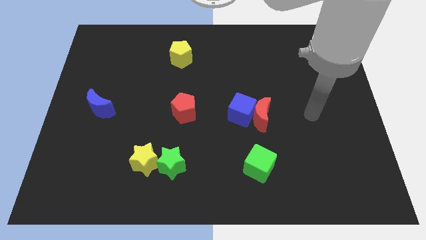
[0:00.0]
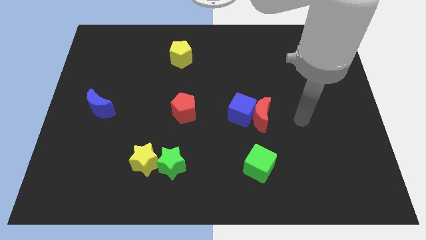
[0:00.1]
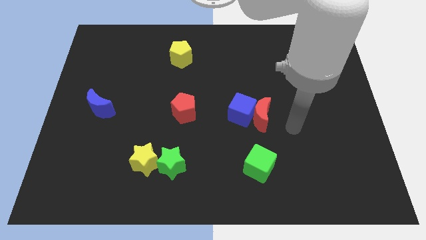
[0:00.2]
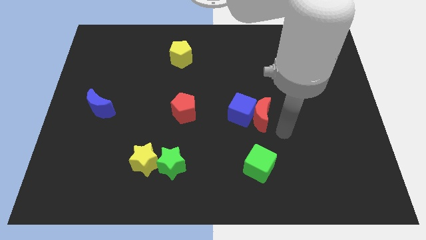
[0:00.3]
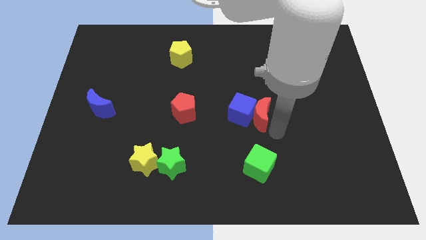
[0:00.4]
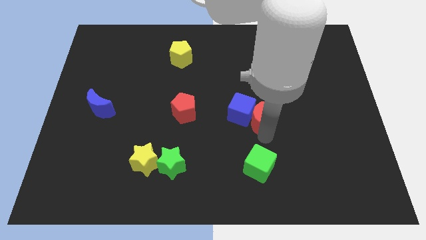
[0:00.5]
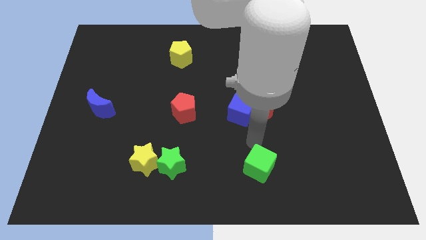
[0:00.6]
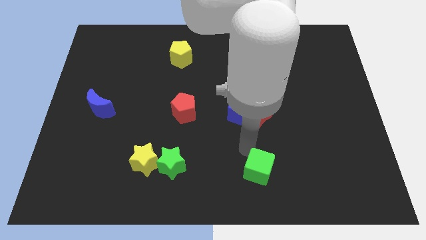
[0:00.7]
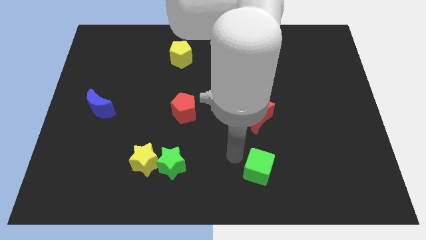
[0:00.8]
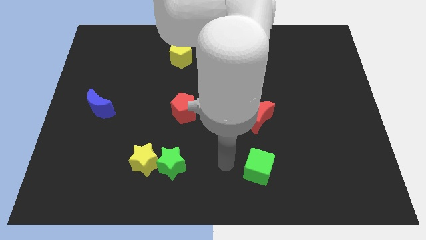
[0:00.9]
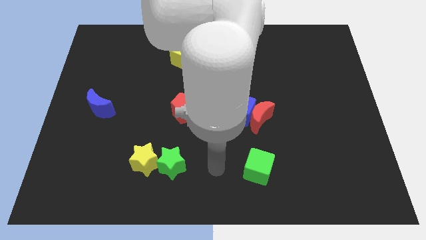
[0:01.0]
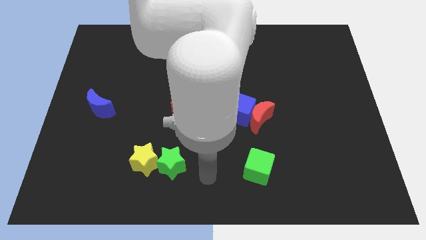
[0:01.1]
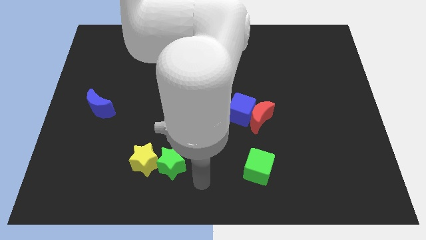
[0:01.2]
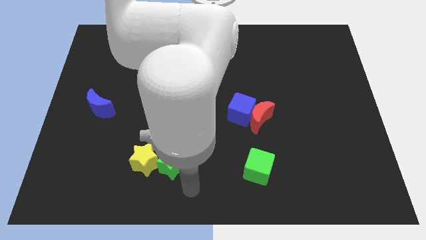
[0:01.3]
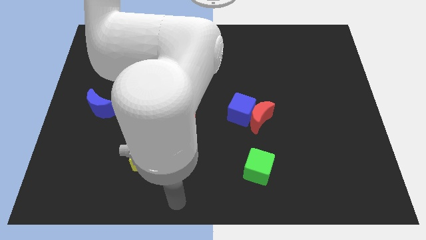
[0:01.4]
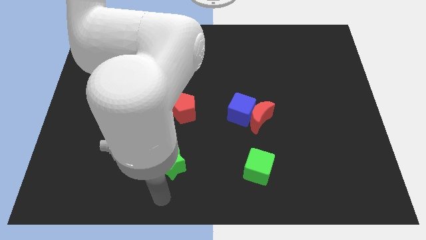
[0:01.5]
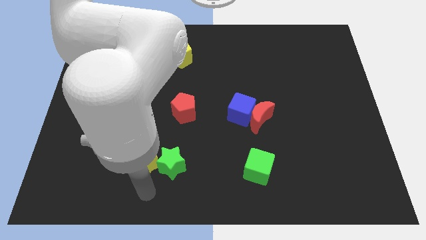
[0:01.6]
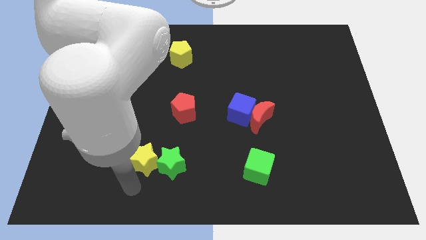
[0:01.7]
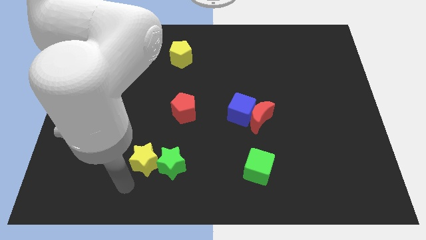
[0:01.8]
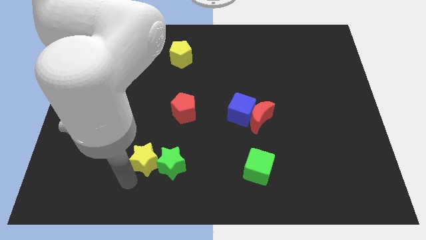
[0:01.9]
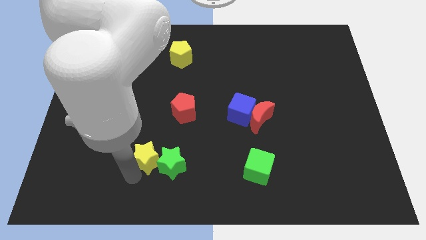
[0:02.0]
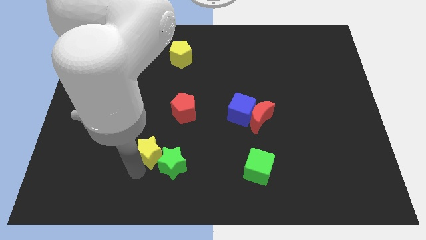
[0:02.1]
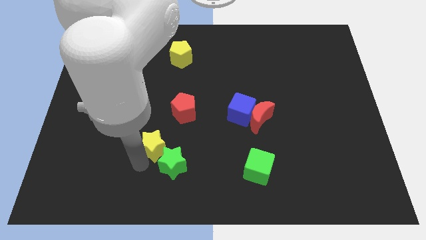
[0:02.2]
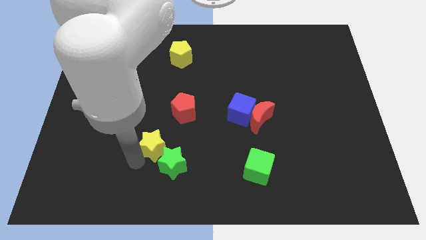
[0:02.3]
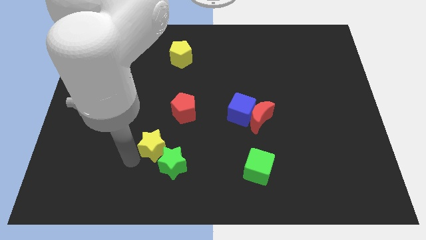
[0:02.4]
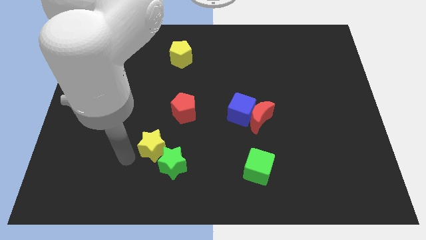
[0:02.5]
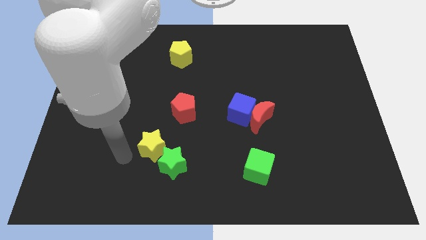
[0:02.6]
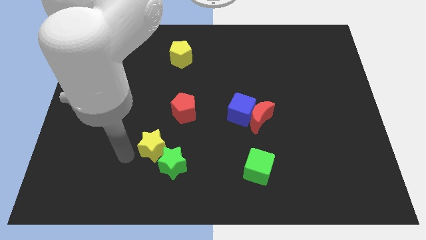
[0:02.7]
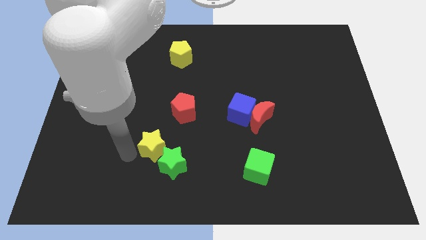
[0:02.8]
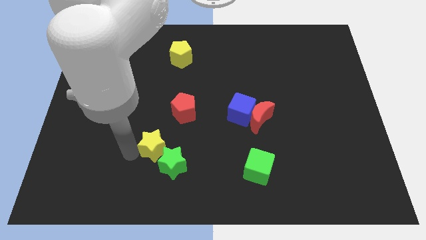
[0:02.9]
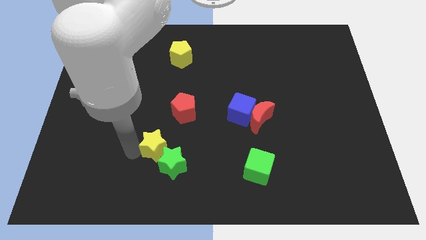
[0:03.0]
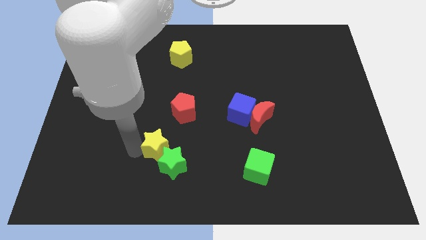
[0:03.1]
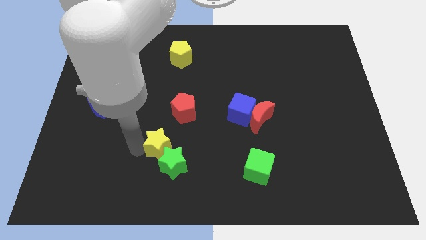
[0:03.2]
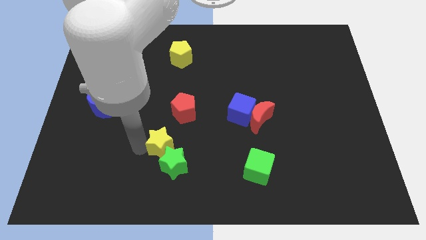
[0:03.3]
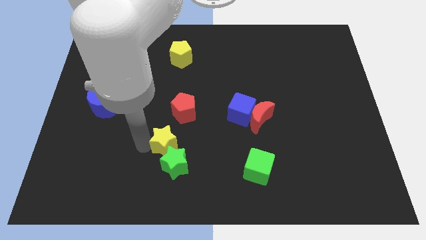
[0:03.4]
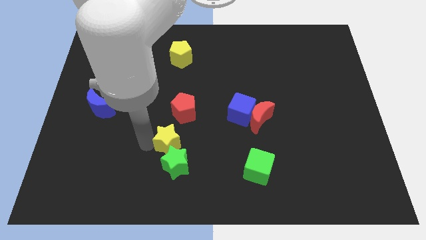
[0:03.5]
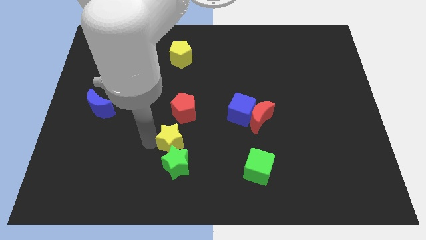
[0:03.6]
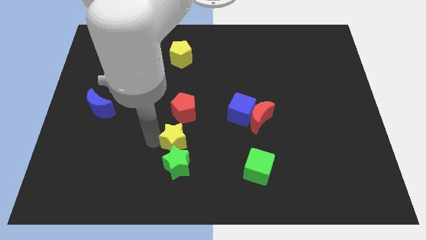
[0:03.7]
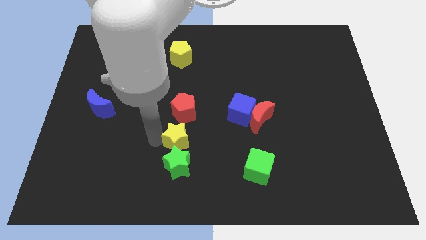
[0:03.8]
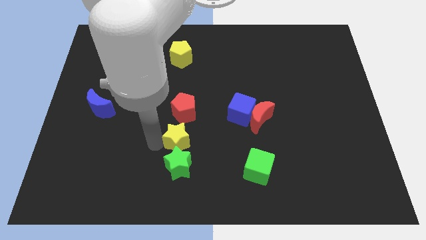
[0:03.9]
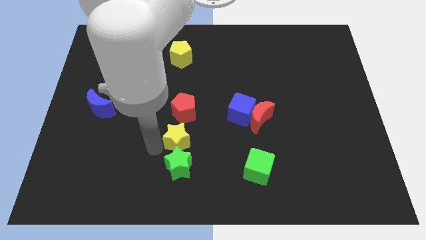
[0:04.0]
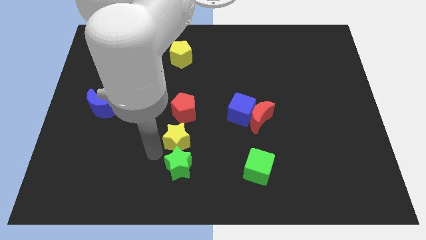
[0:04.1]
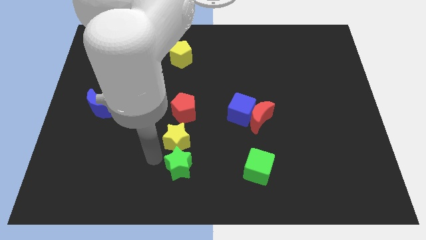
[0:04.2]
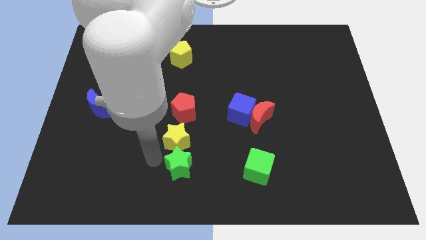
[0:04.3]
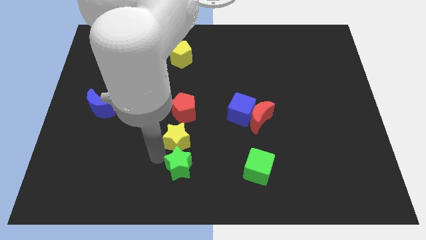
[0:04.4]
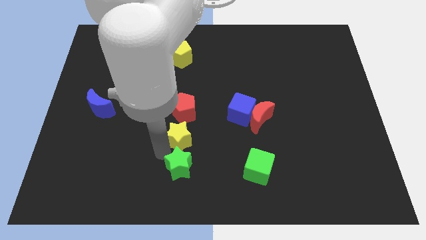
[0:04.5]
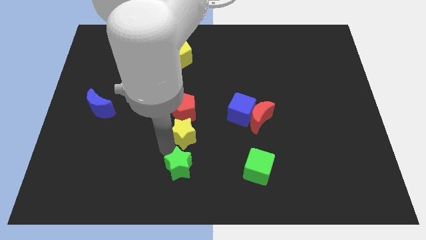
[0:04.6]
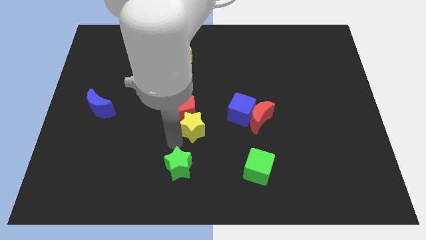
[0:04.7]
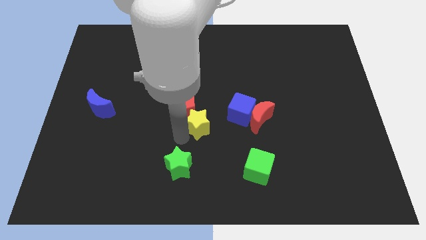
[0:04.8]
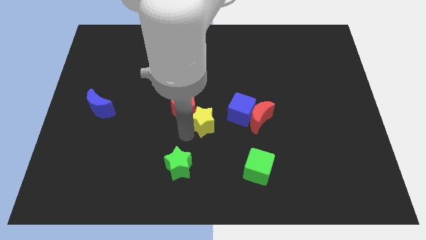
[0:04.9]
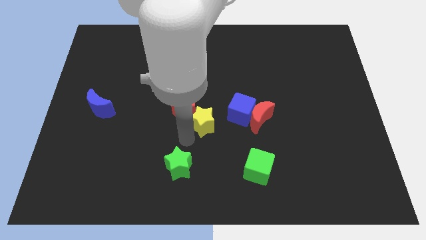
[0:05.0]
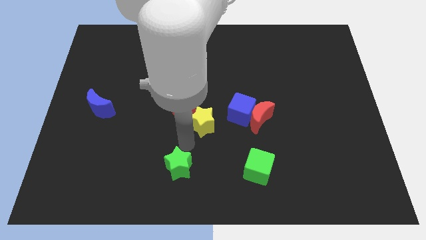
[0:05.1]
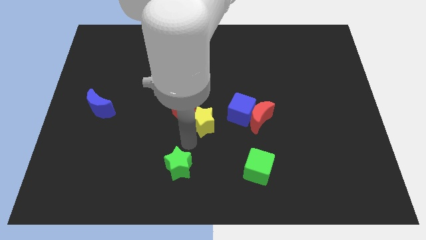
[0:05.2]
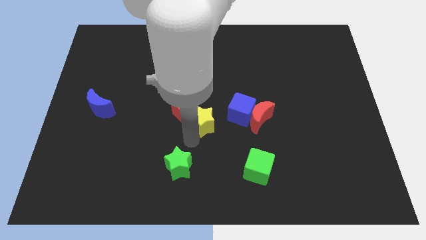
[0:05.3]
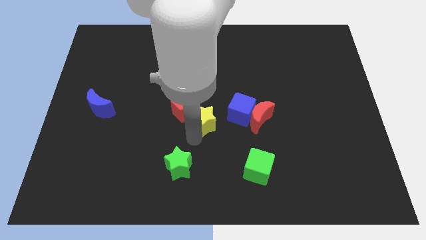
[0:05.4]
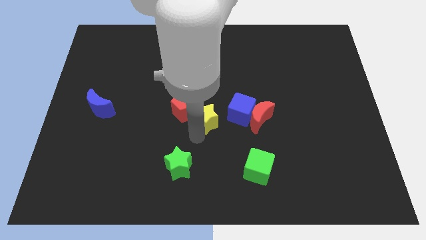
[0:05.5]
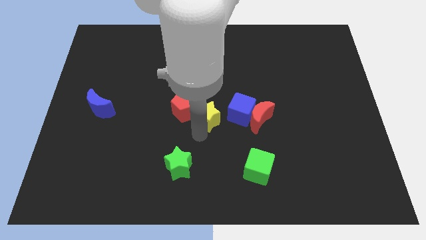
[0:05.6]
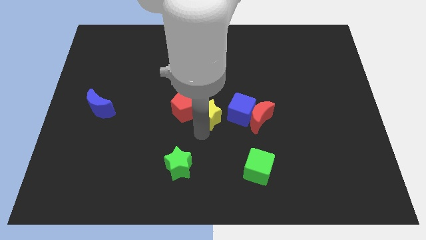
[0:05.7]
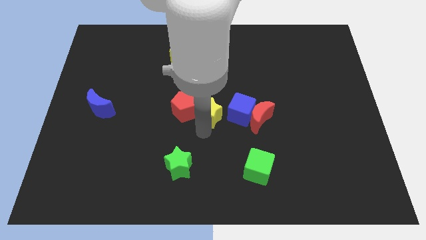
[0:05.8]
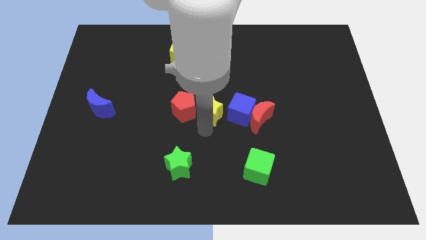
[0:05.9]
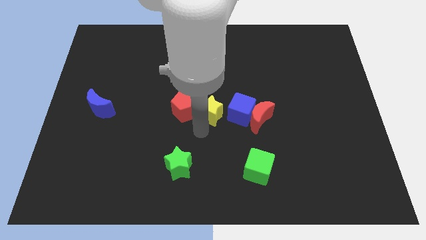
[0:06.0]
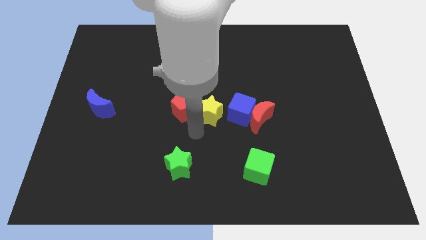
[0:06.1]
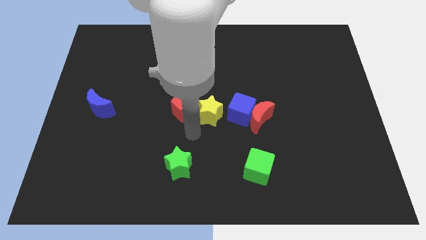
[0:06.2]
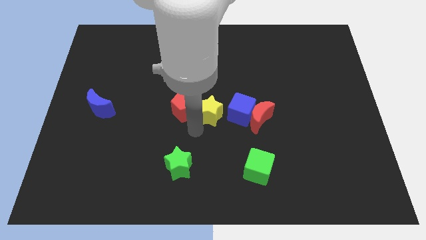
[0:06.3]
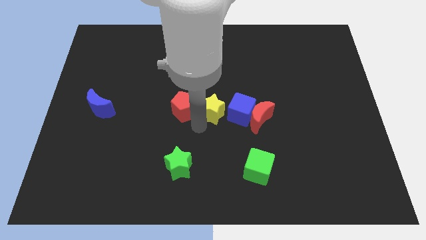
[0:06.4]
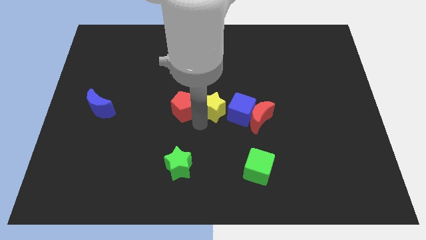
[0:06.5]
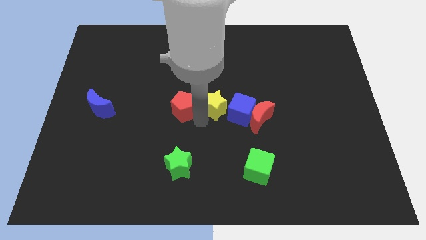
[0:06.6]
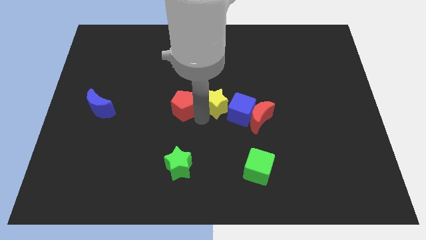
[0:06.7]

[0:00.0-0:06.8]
push the yellow star to the top left of the red moon
